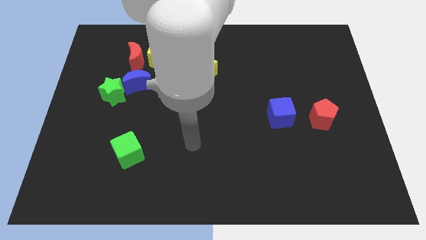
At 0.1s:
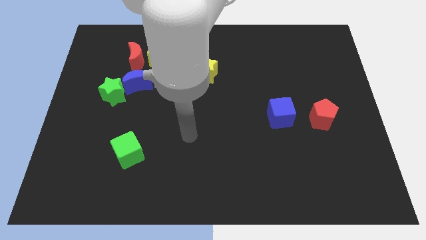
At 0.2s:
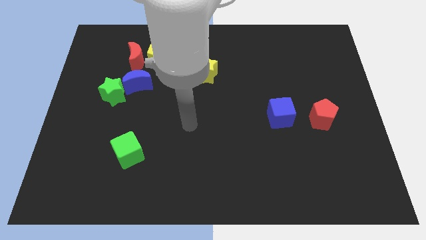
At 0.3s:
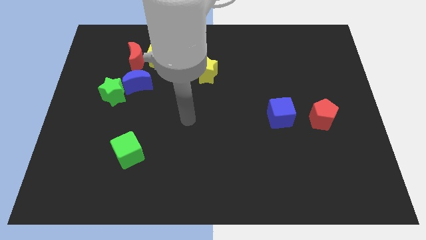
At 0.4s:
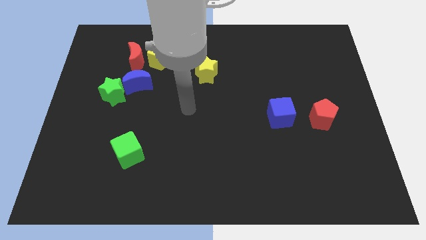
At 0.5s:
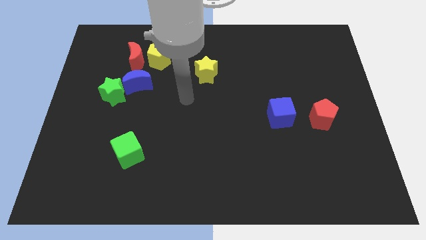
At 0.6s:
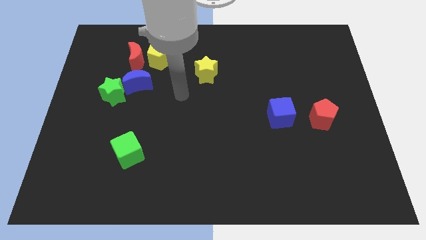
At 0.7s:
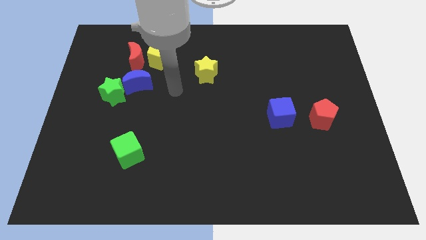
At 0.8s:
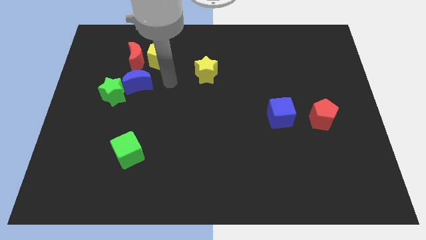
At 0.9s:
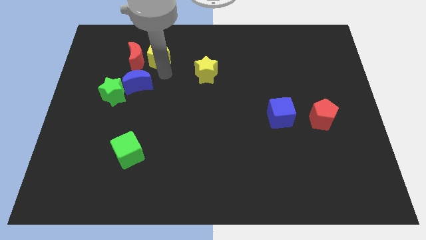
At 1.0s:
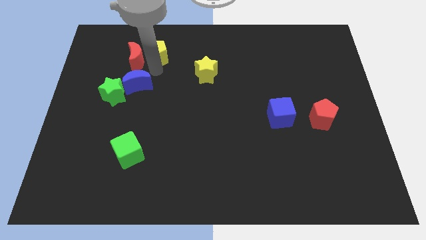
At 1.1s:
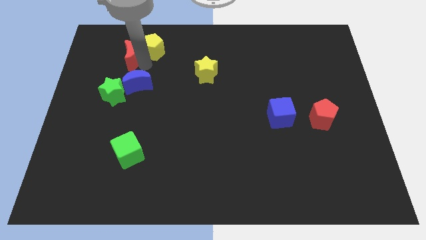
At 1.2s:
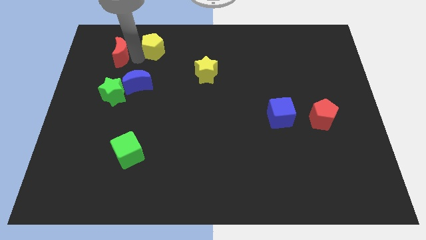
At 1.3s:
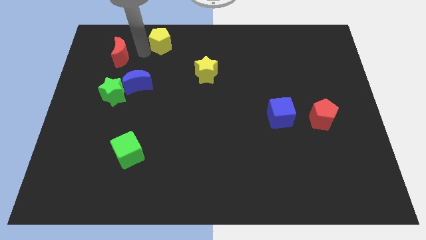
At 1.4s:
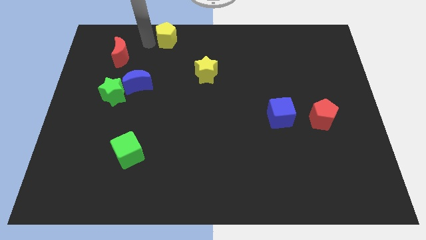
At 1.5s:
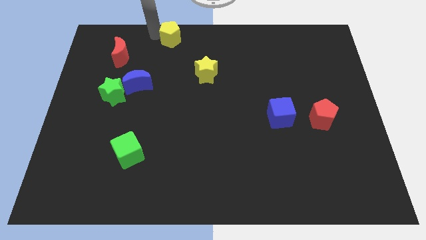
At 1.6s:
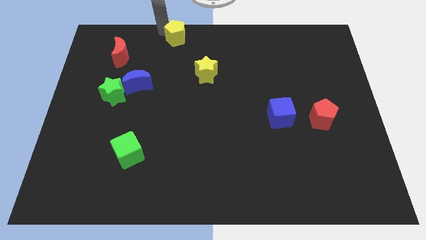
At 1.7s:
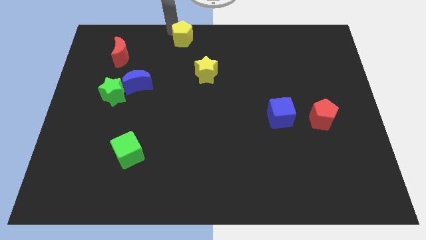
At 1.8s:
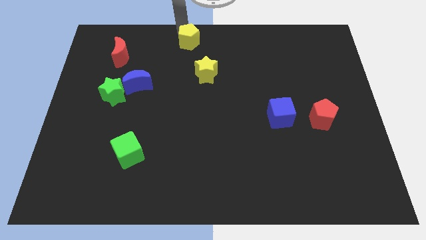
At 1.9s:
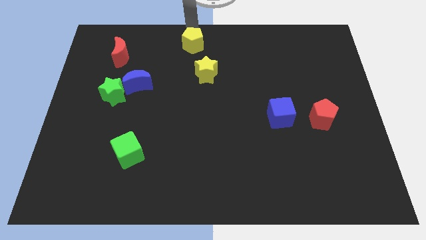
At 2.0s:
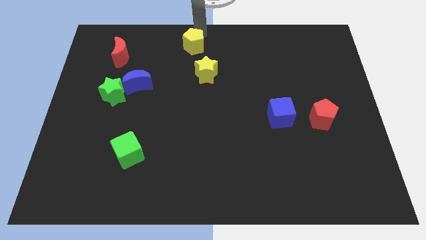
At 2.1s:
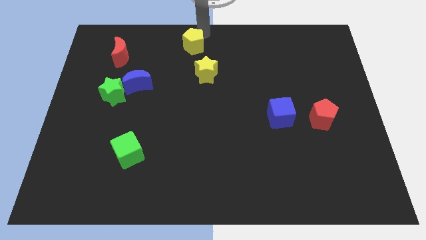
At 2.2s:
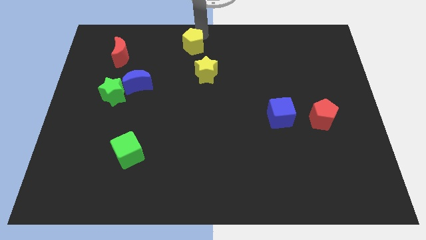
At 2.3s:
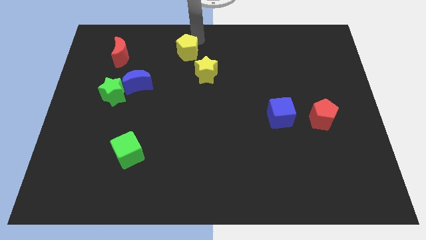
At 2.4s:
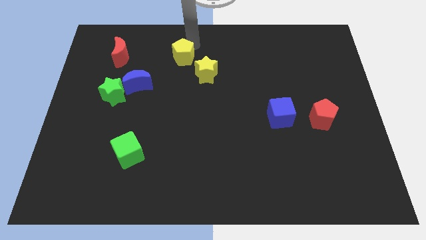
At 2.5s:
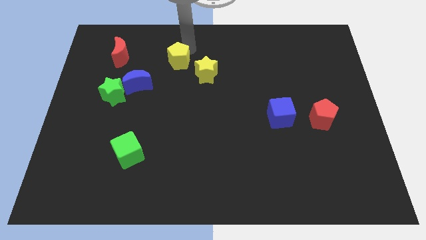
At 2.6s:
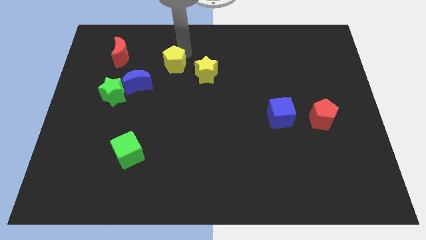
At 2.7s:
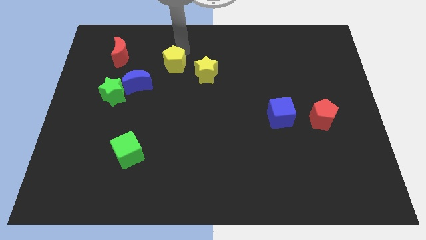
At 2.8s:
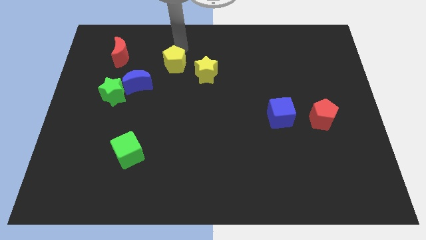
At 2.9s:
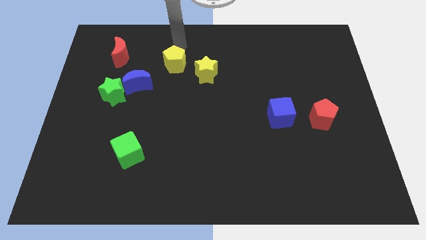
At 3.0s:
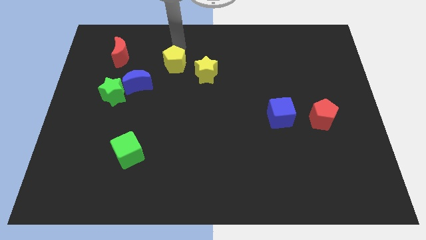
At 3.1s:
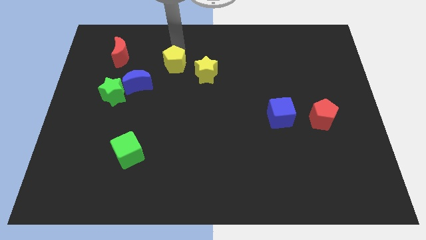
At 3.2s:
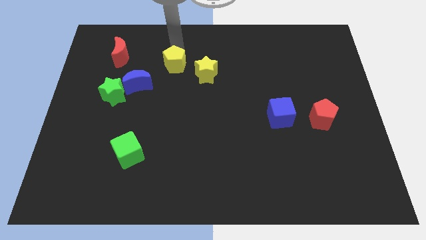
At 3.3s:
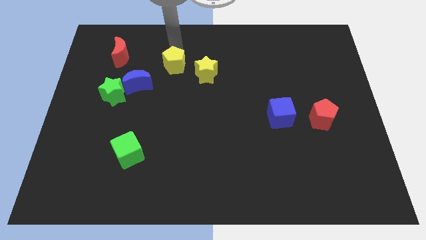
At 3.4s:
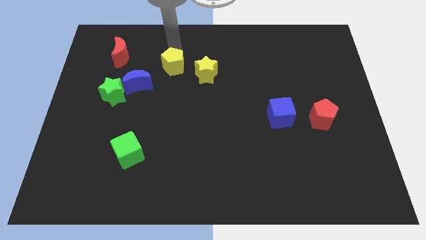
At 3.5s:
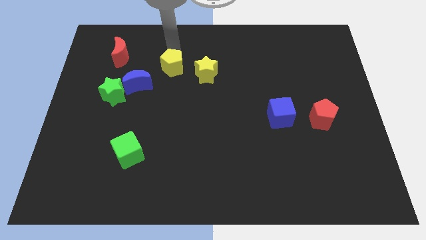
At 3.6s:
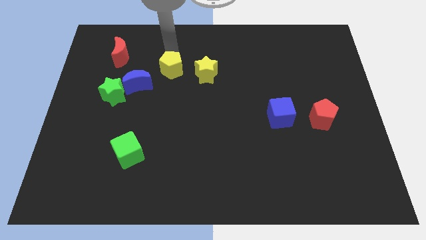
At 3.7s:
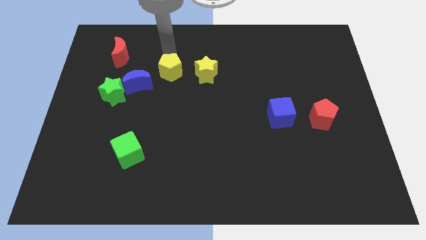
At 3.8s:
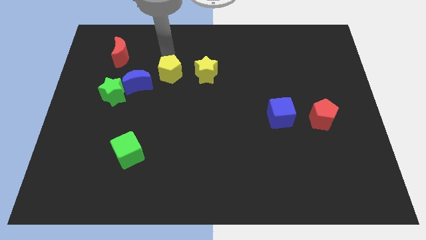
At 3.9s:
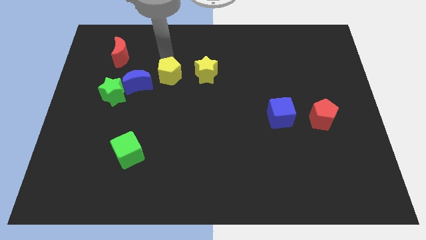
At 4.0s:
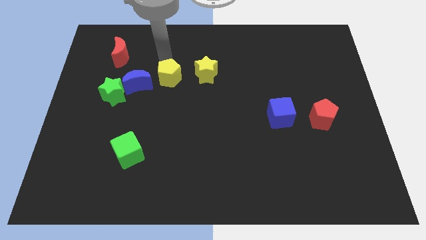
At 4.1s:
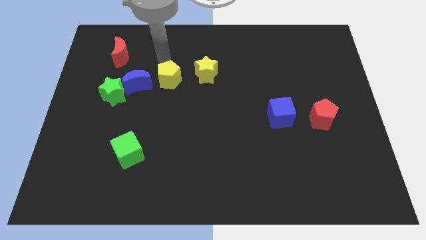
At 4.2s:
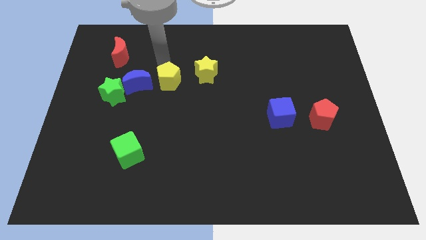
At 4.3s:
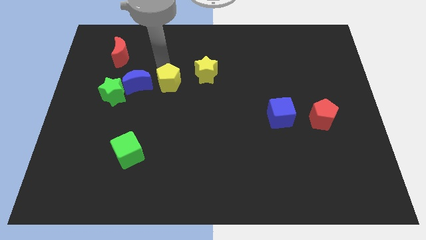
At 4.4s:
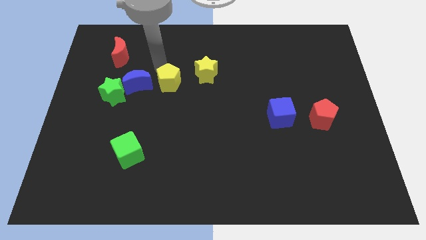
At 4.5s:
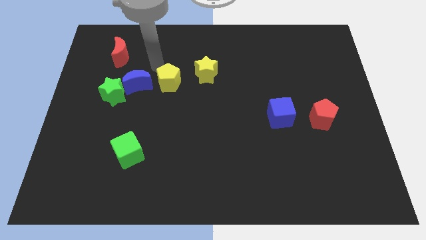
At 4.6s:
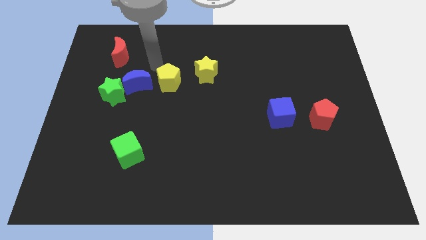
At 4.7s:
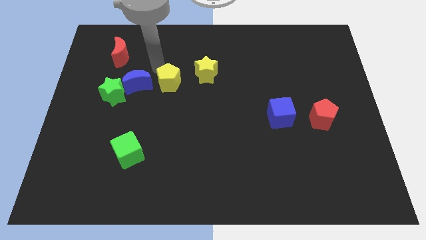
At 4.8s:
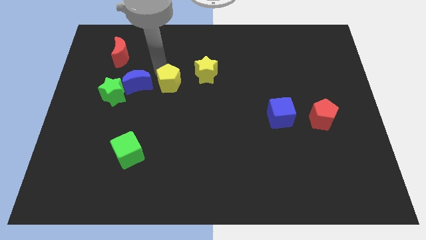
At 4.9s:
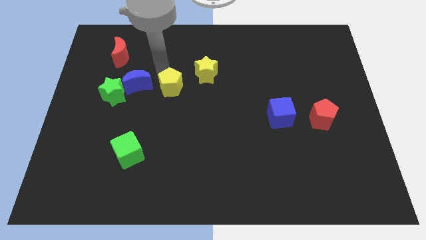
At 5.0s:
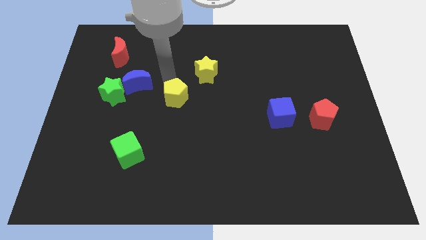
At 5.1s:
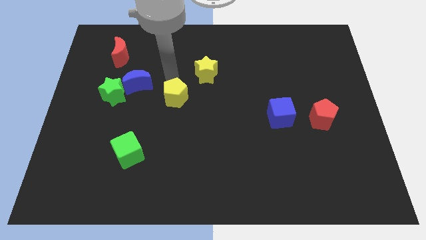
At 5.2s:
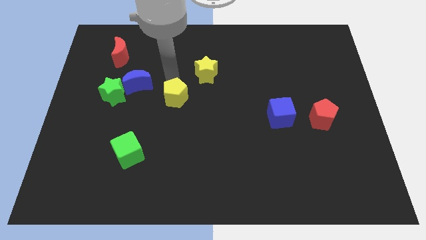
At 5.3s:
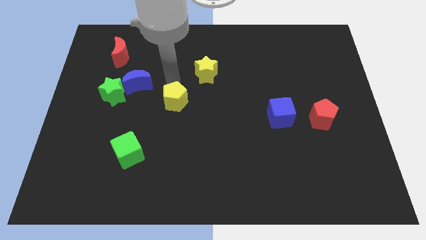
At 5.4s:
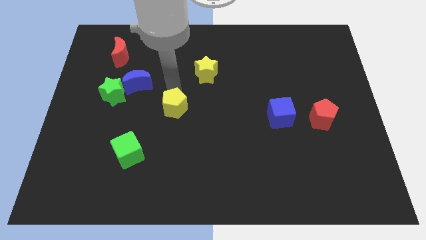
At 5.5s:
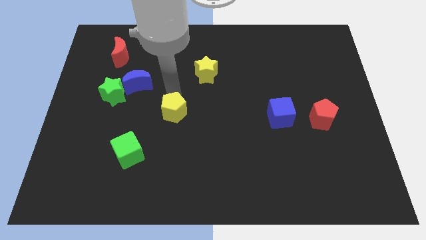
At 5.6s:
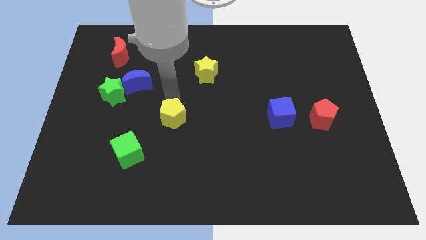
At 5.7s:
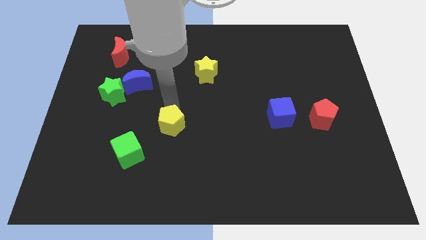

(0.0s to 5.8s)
move the yellow pentagon down

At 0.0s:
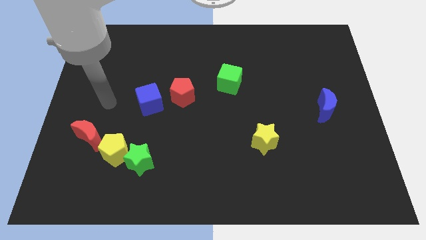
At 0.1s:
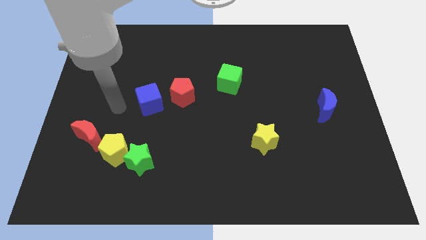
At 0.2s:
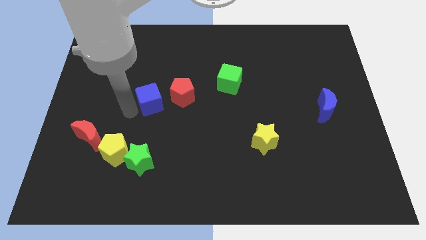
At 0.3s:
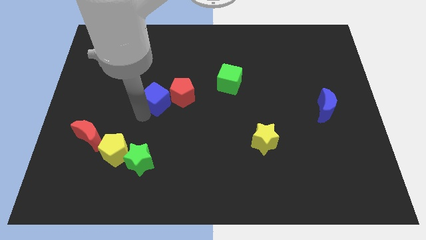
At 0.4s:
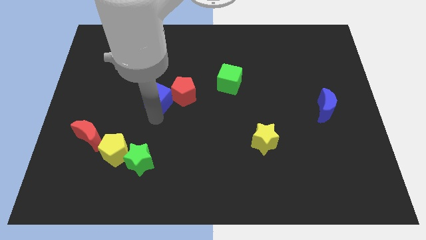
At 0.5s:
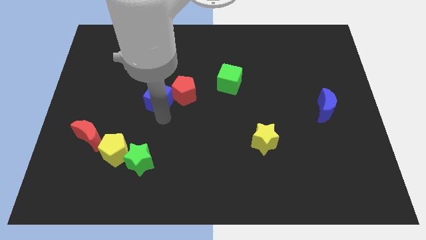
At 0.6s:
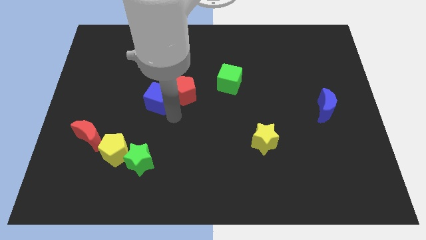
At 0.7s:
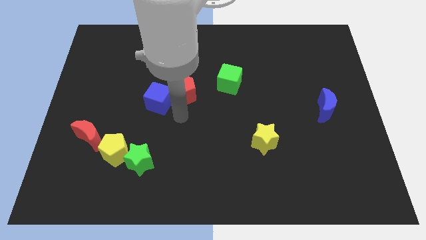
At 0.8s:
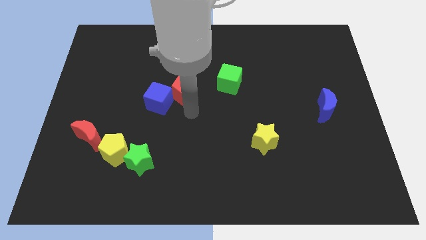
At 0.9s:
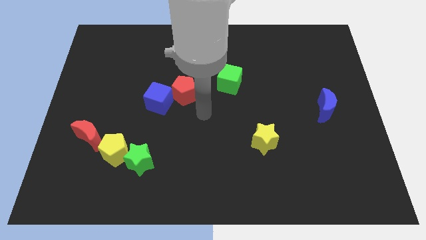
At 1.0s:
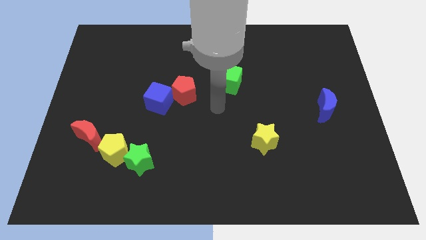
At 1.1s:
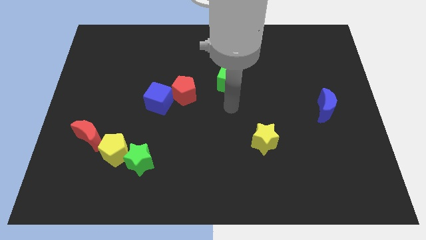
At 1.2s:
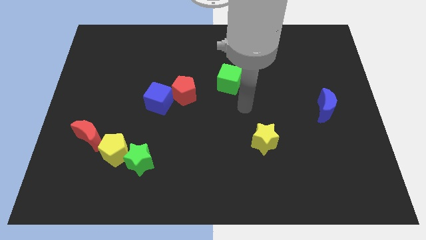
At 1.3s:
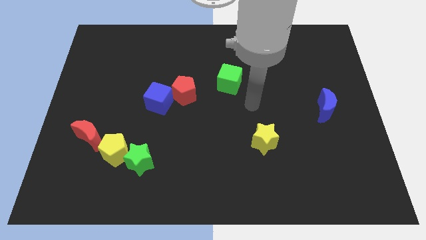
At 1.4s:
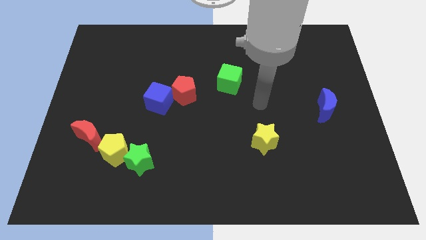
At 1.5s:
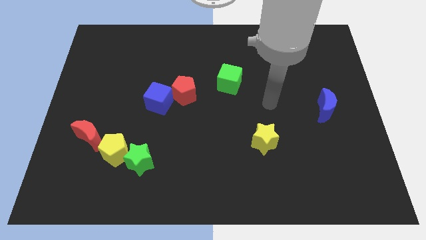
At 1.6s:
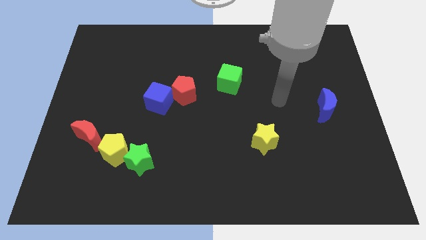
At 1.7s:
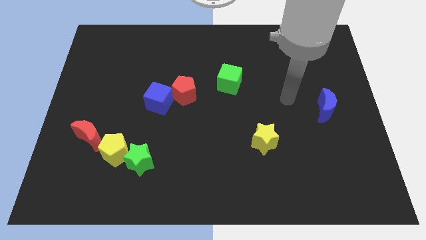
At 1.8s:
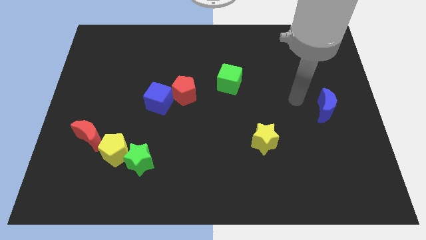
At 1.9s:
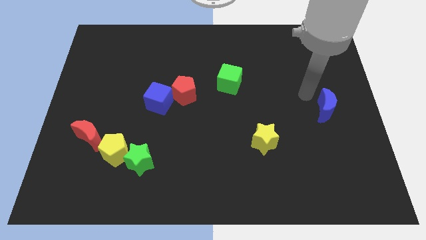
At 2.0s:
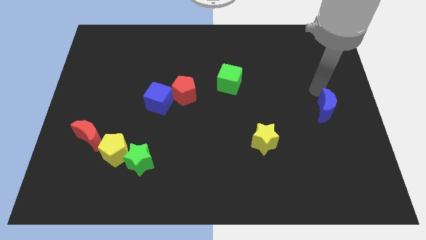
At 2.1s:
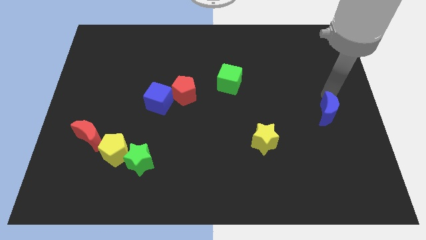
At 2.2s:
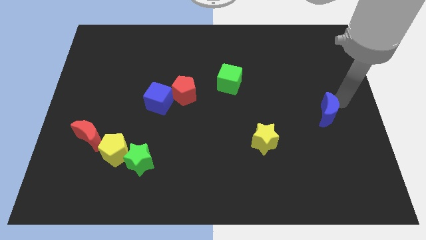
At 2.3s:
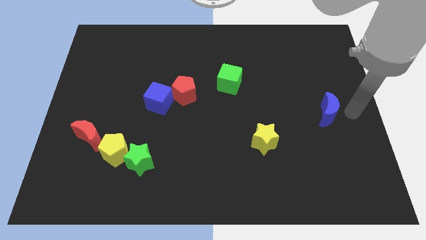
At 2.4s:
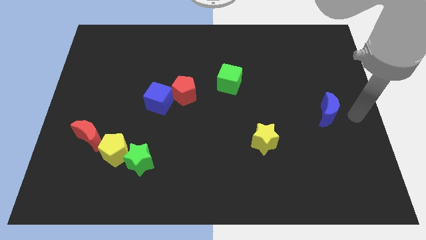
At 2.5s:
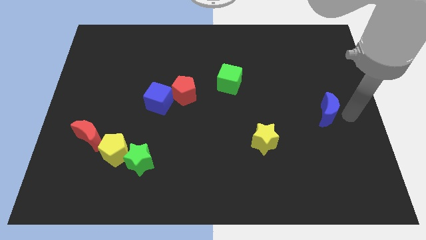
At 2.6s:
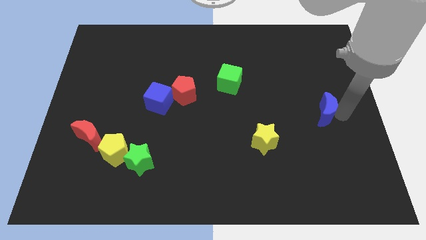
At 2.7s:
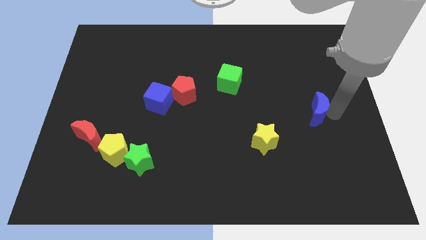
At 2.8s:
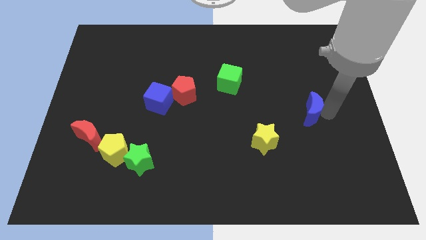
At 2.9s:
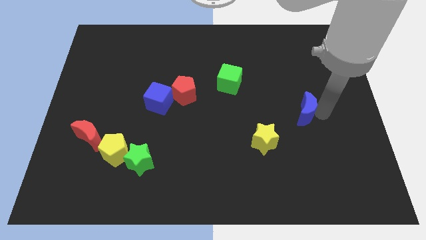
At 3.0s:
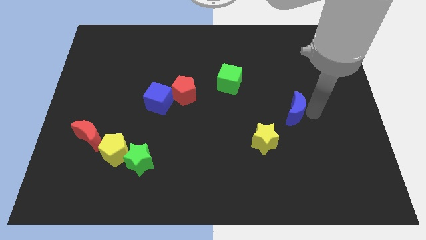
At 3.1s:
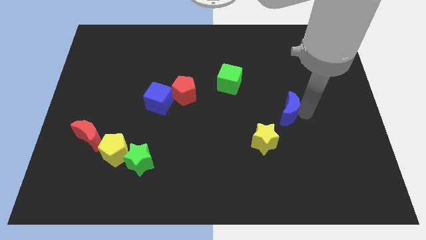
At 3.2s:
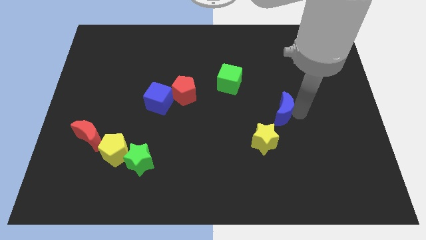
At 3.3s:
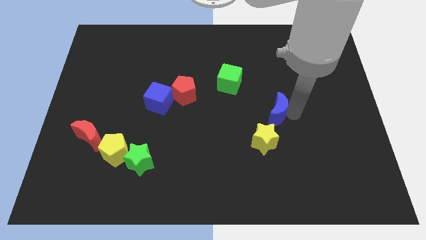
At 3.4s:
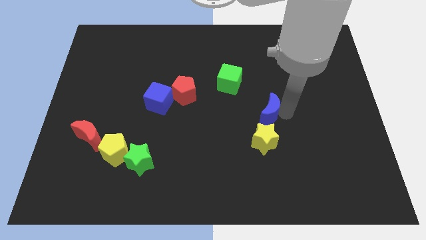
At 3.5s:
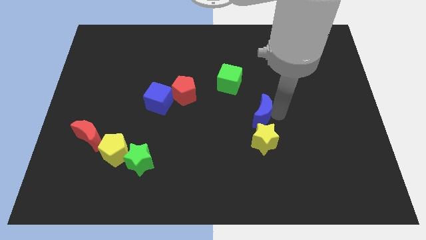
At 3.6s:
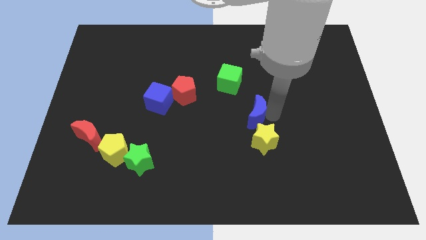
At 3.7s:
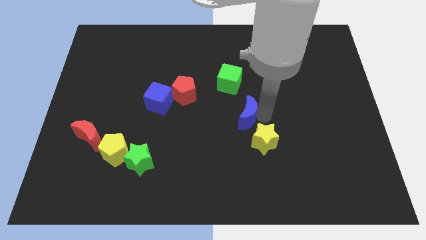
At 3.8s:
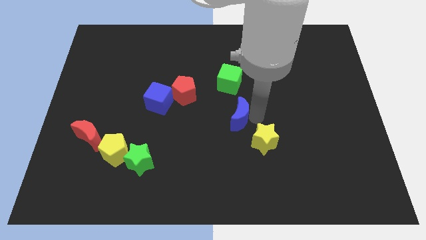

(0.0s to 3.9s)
slide the blue moon to the left
